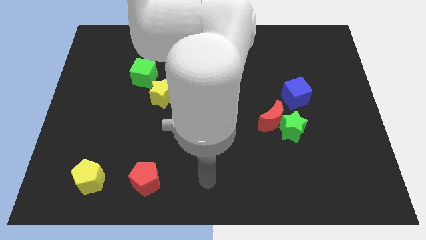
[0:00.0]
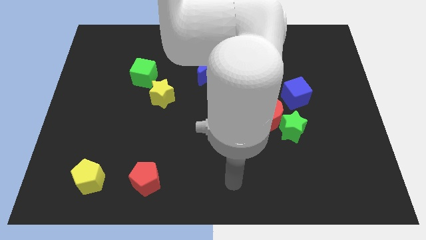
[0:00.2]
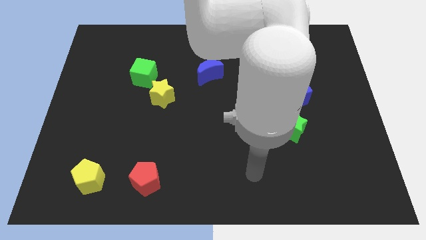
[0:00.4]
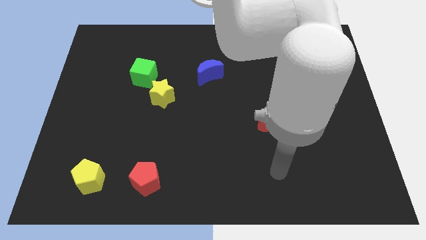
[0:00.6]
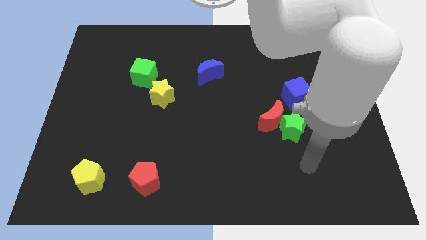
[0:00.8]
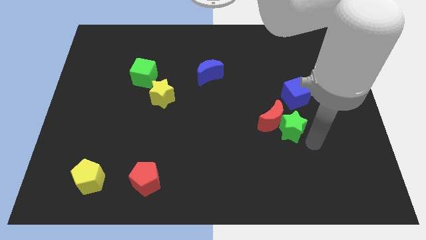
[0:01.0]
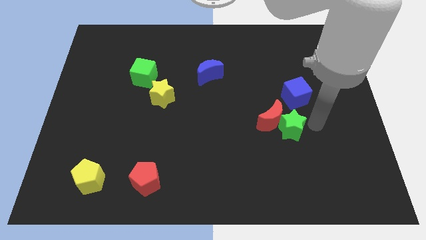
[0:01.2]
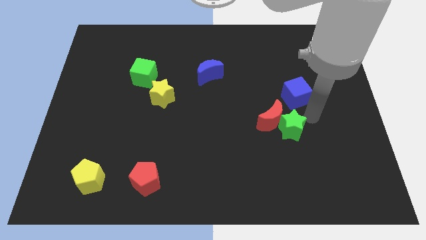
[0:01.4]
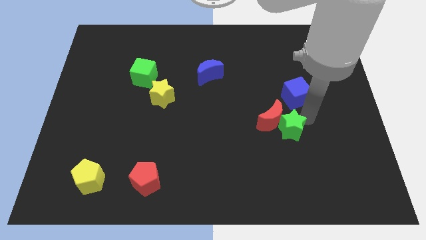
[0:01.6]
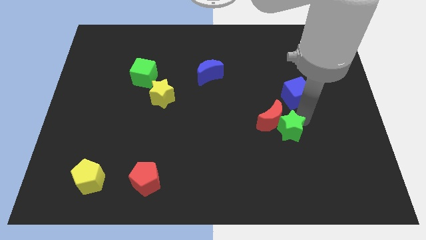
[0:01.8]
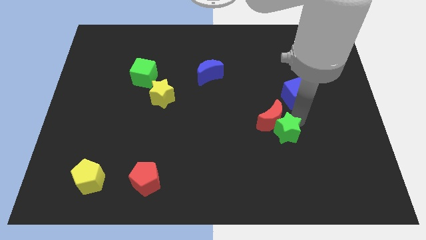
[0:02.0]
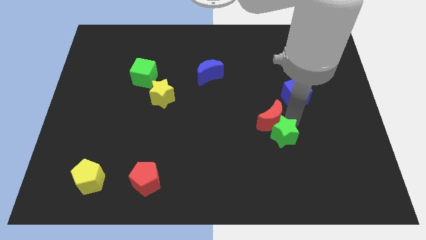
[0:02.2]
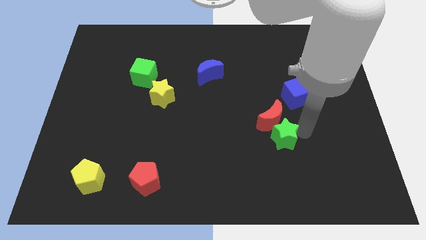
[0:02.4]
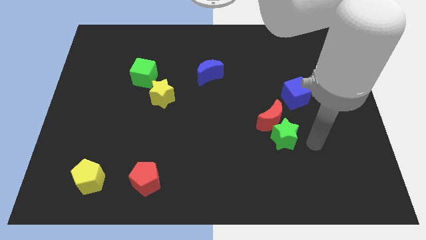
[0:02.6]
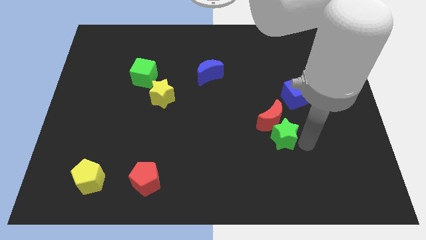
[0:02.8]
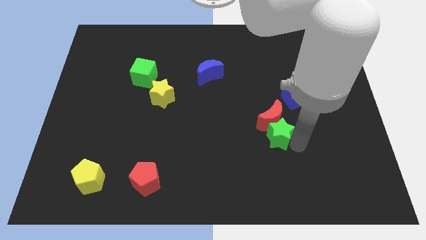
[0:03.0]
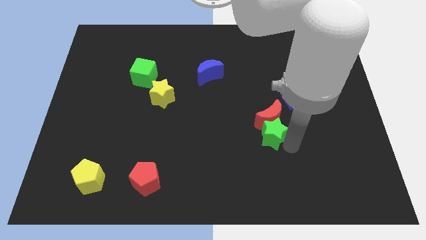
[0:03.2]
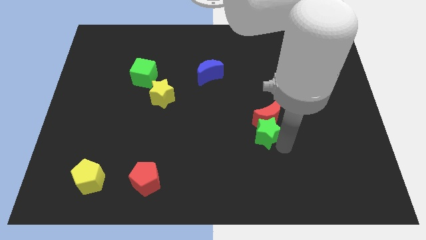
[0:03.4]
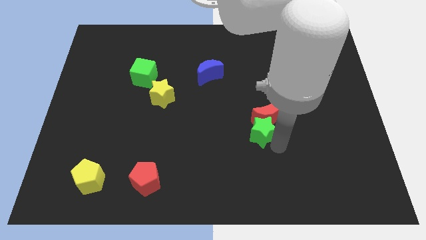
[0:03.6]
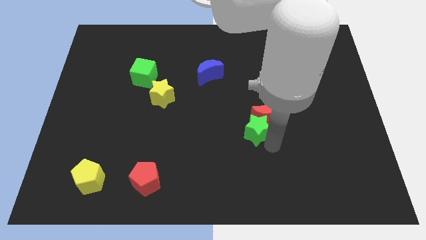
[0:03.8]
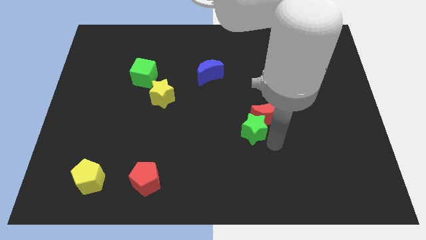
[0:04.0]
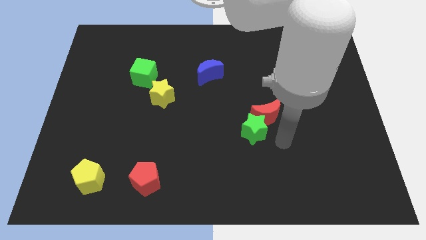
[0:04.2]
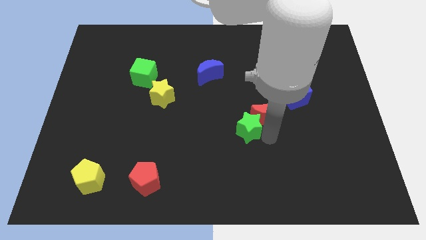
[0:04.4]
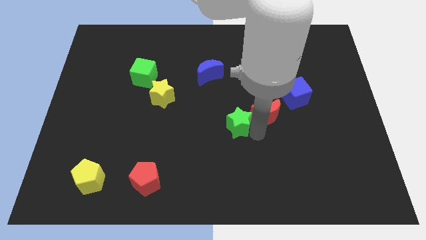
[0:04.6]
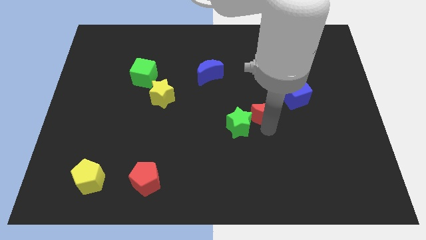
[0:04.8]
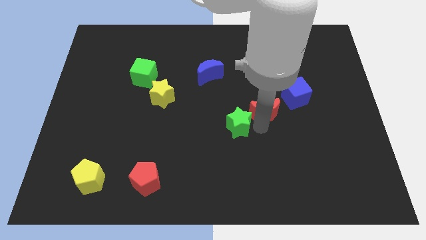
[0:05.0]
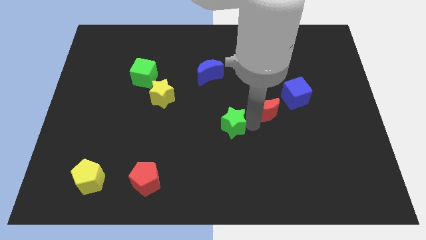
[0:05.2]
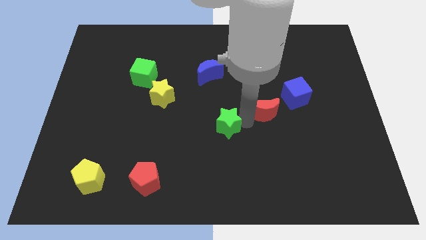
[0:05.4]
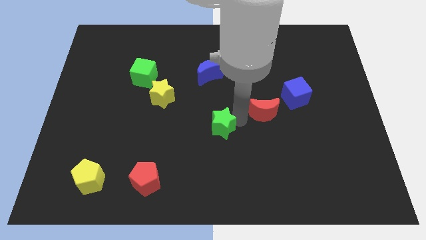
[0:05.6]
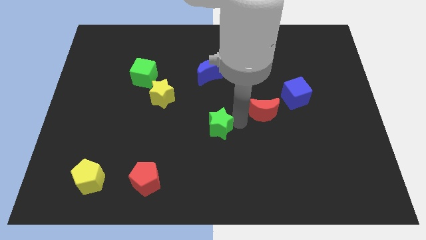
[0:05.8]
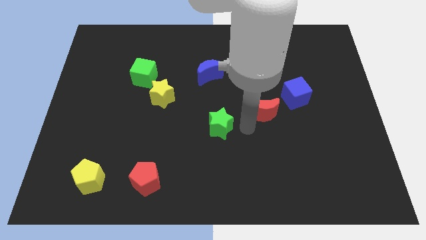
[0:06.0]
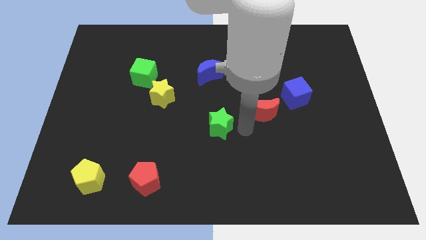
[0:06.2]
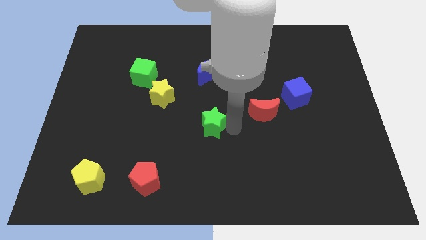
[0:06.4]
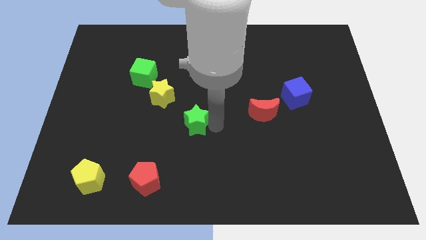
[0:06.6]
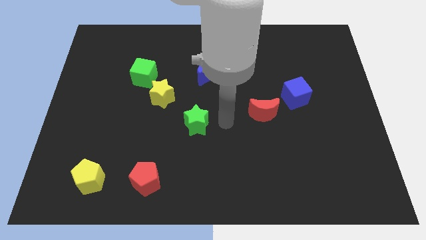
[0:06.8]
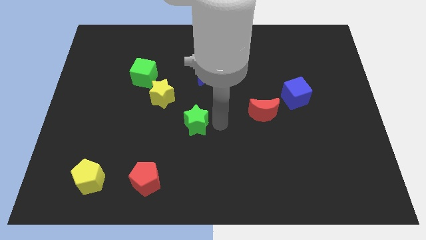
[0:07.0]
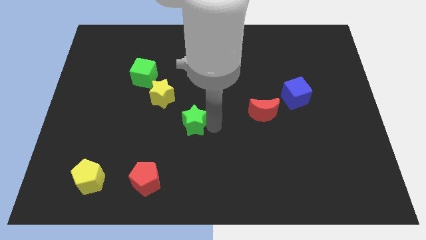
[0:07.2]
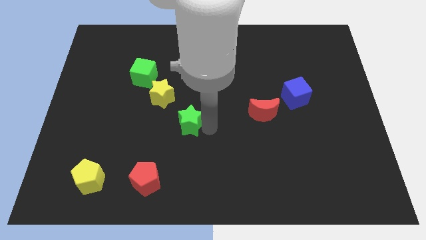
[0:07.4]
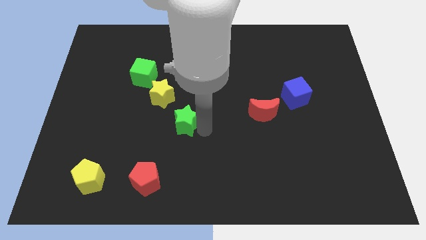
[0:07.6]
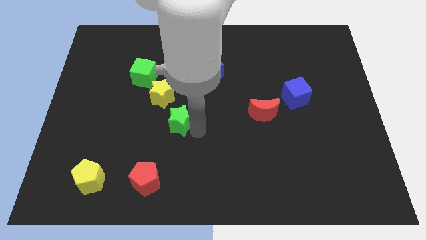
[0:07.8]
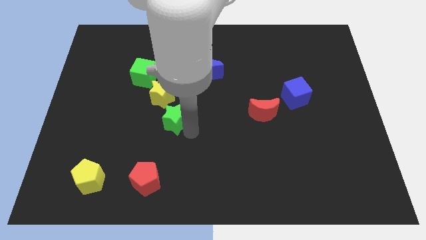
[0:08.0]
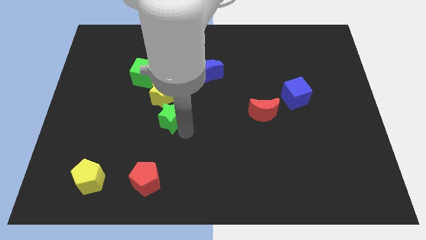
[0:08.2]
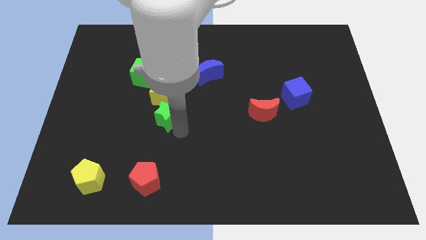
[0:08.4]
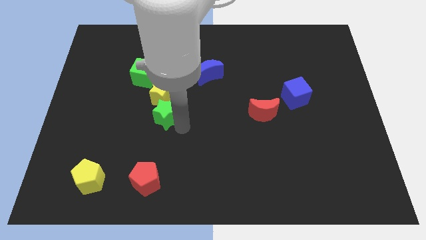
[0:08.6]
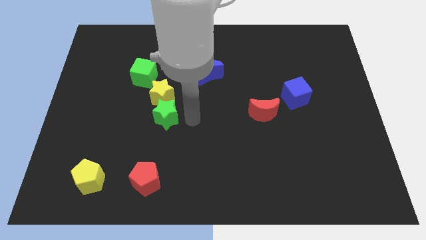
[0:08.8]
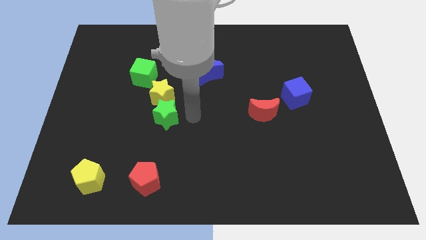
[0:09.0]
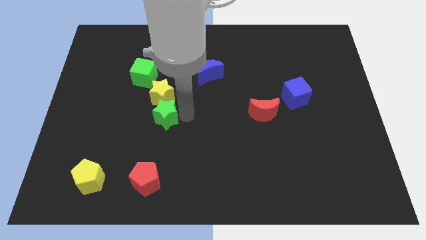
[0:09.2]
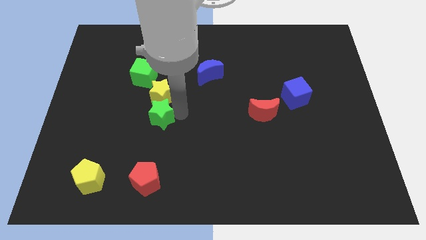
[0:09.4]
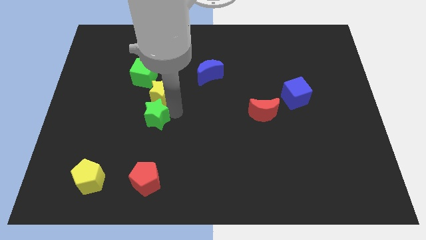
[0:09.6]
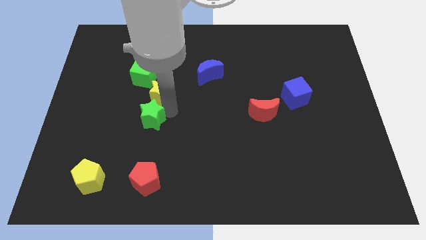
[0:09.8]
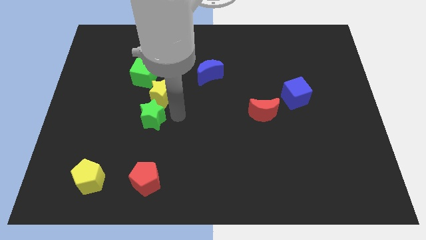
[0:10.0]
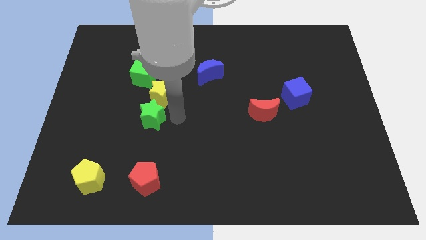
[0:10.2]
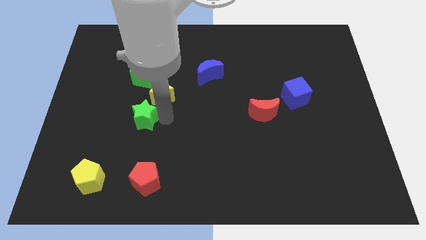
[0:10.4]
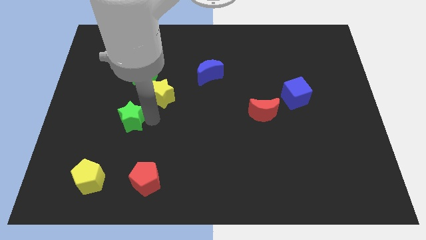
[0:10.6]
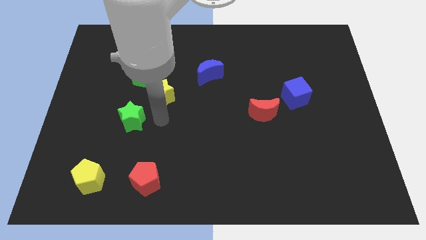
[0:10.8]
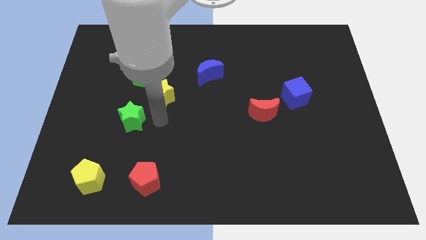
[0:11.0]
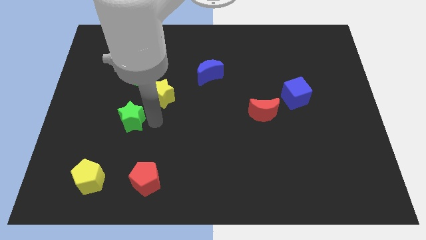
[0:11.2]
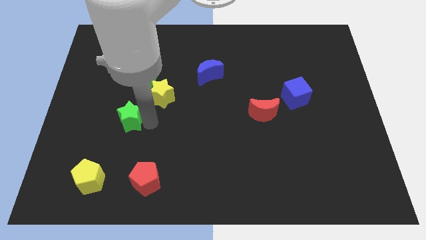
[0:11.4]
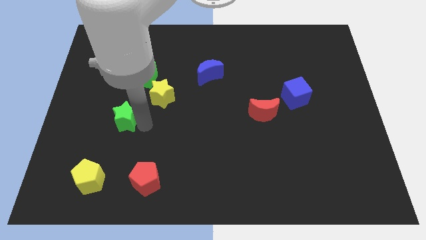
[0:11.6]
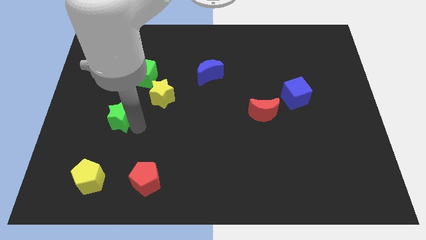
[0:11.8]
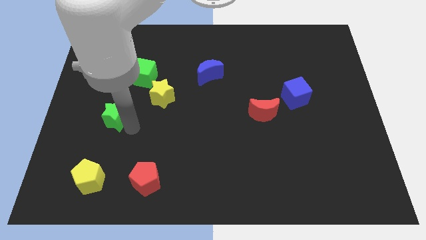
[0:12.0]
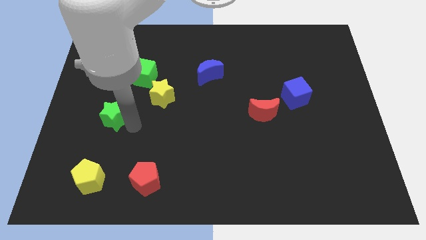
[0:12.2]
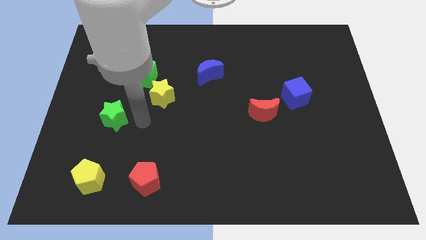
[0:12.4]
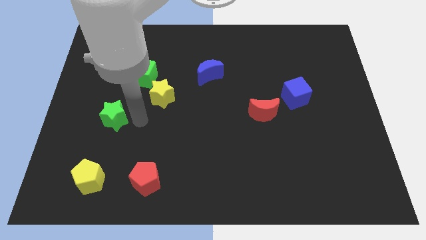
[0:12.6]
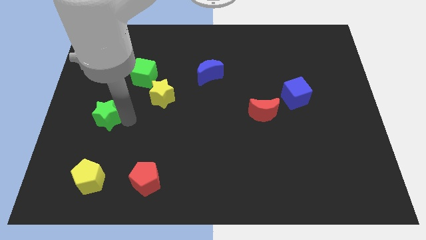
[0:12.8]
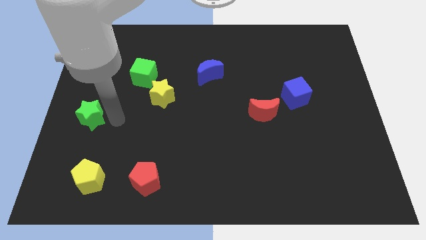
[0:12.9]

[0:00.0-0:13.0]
put the green star to the center left
